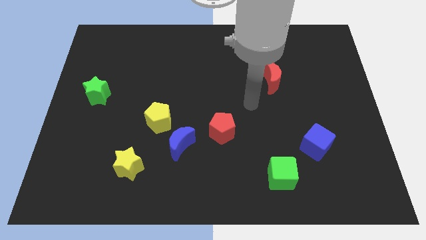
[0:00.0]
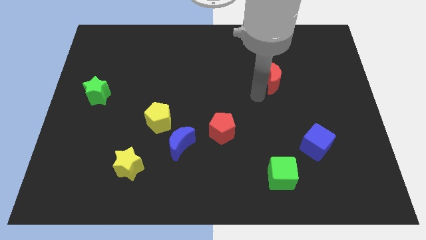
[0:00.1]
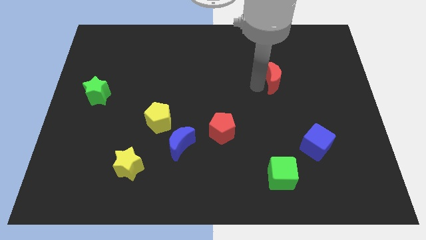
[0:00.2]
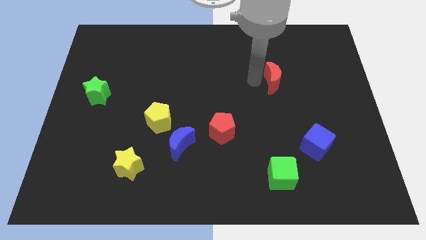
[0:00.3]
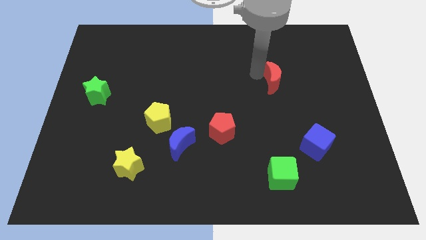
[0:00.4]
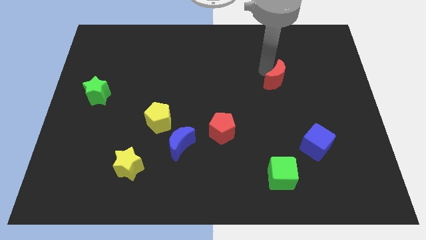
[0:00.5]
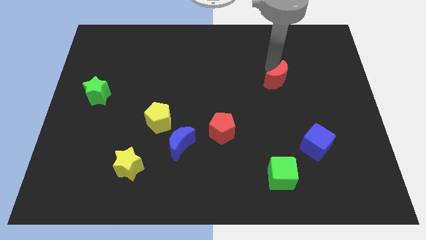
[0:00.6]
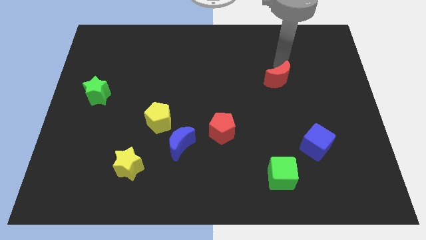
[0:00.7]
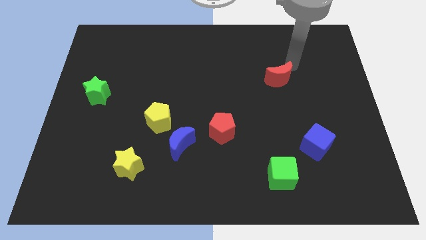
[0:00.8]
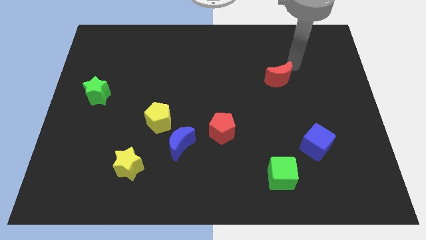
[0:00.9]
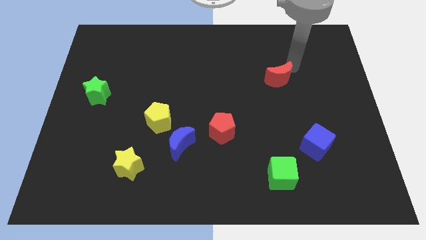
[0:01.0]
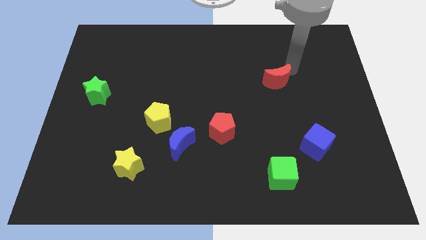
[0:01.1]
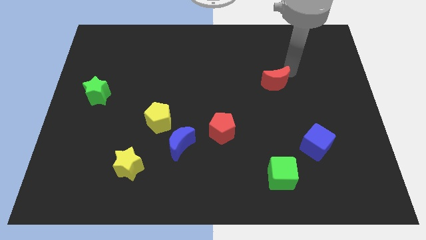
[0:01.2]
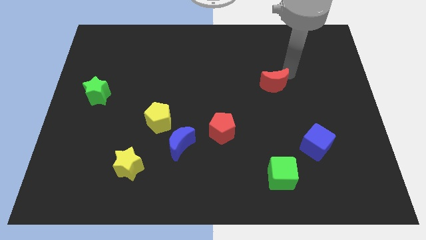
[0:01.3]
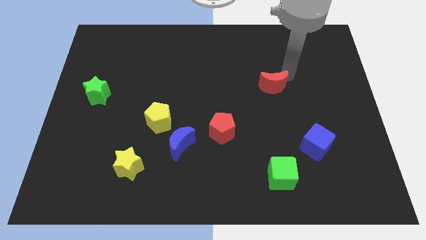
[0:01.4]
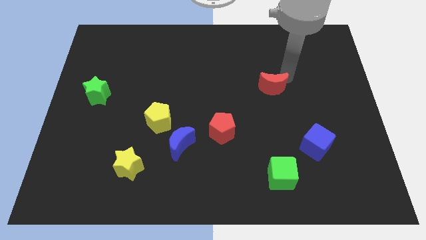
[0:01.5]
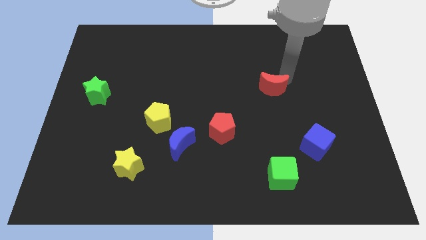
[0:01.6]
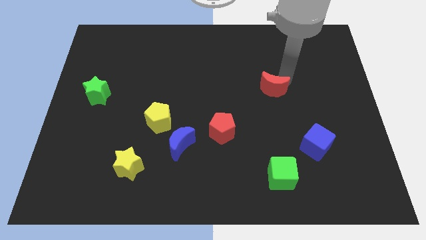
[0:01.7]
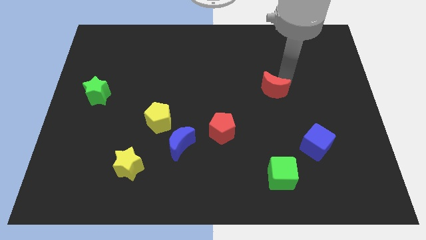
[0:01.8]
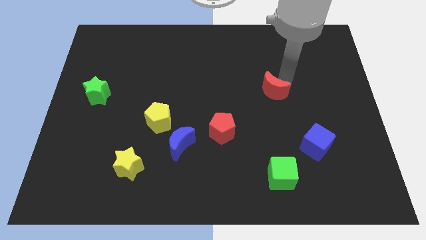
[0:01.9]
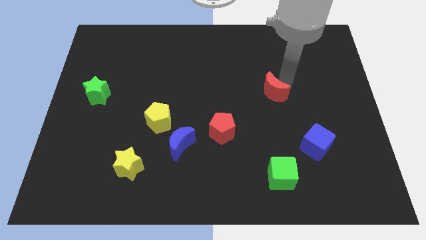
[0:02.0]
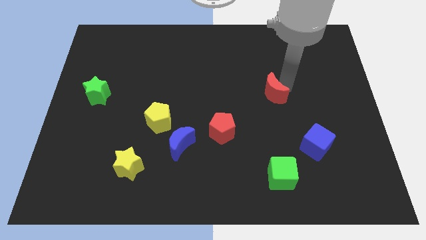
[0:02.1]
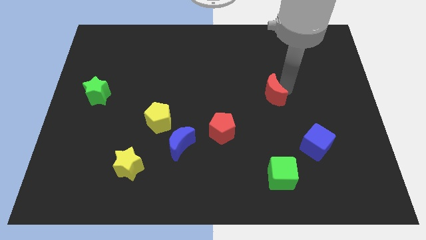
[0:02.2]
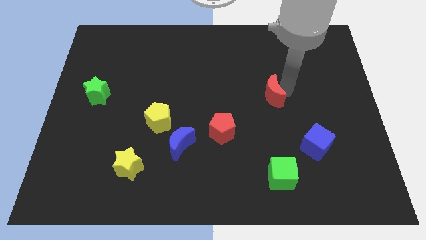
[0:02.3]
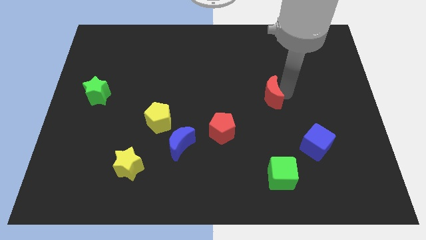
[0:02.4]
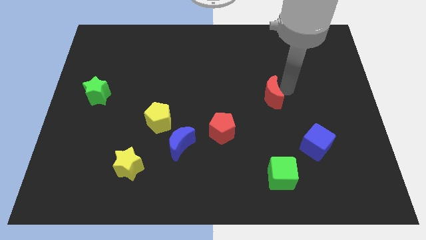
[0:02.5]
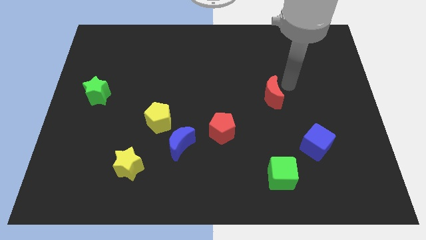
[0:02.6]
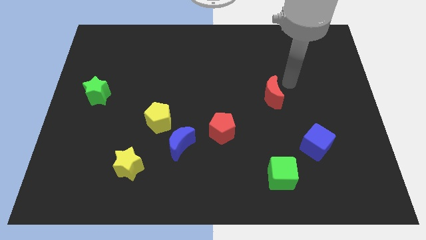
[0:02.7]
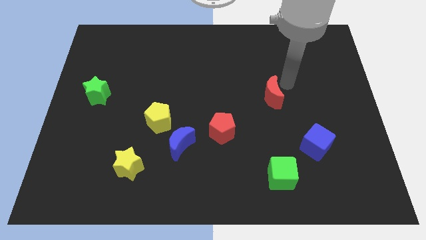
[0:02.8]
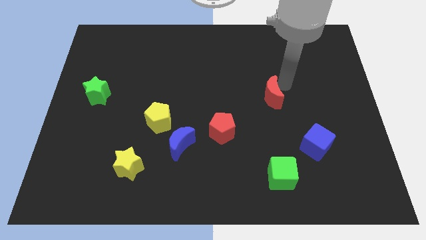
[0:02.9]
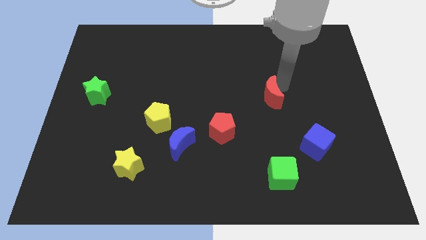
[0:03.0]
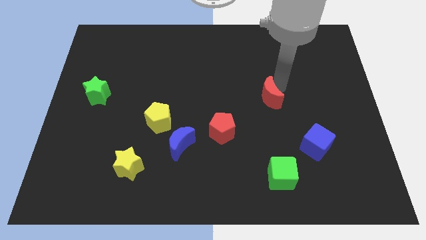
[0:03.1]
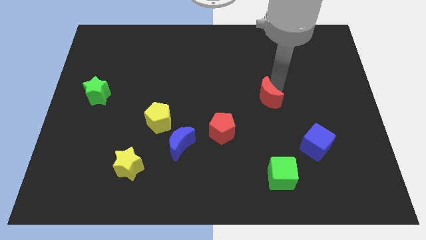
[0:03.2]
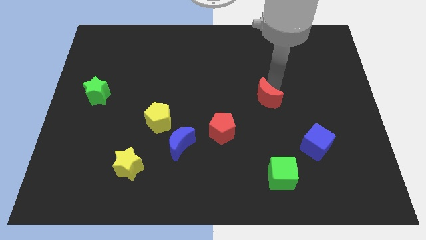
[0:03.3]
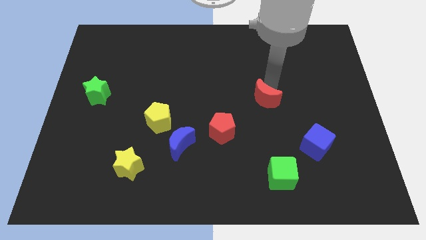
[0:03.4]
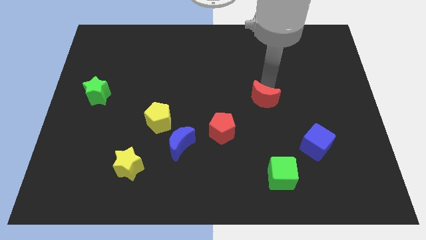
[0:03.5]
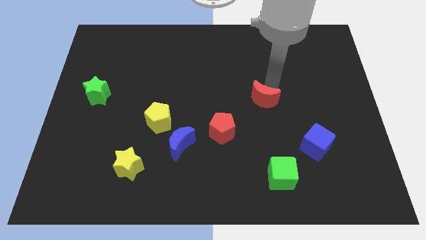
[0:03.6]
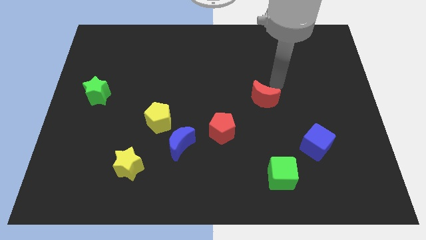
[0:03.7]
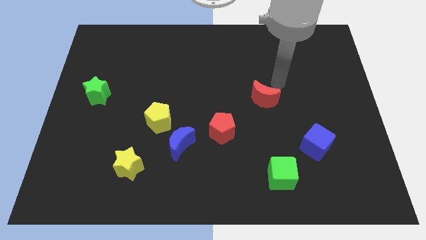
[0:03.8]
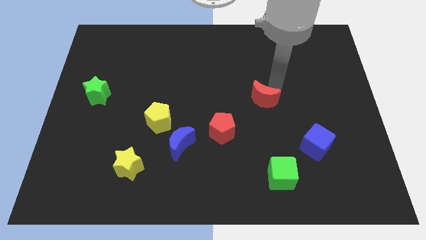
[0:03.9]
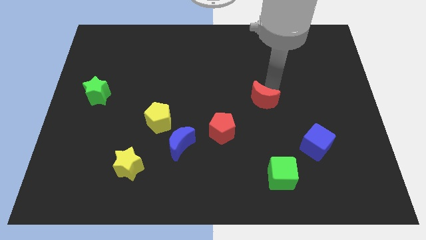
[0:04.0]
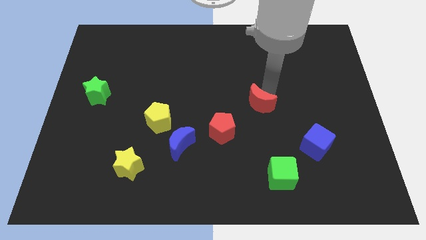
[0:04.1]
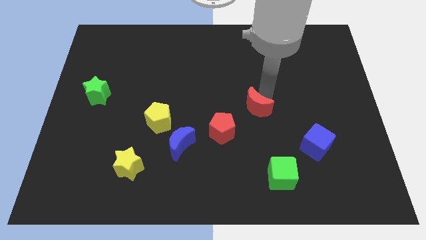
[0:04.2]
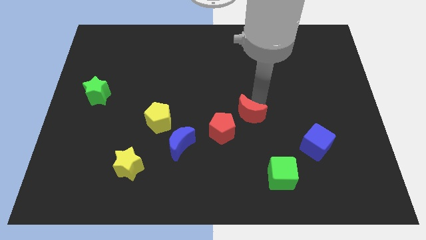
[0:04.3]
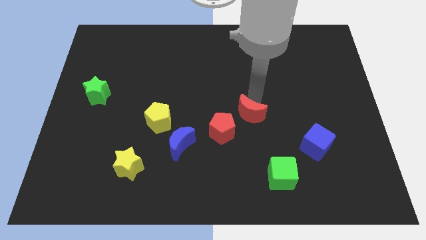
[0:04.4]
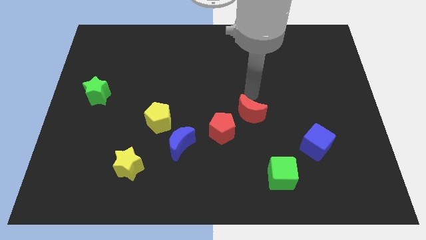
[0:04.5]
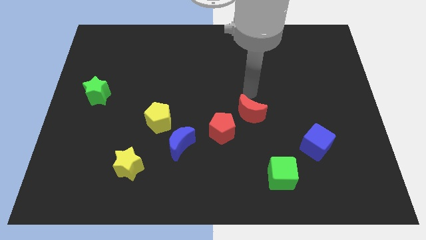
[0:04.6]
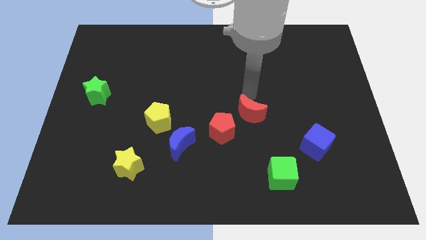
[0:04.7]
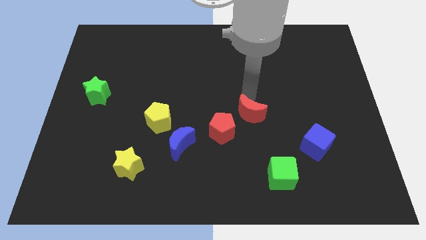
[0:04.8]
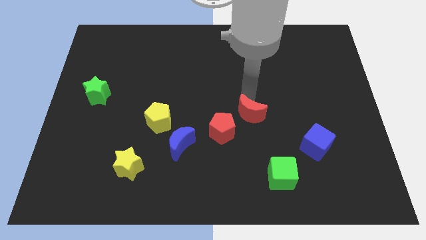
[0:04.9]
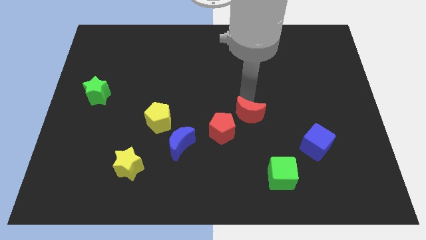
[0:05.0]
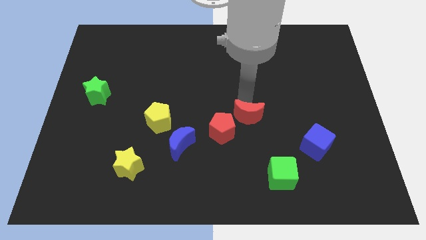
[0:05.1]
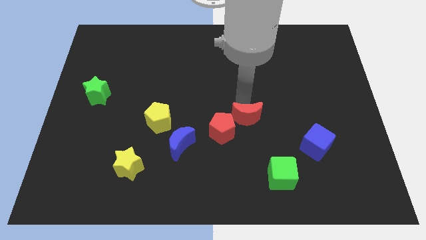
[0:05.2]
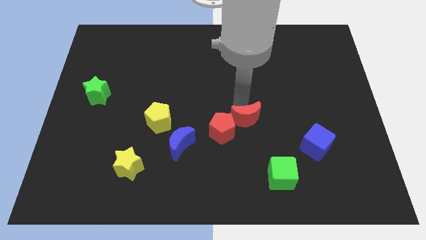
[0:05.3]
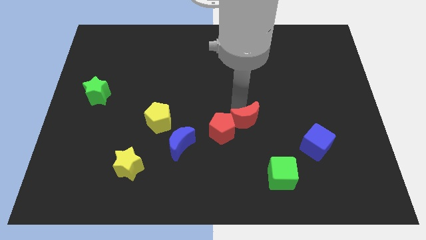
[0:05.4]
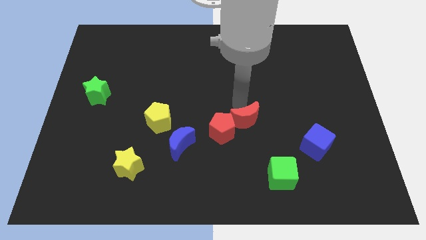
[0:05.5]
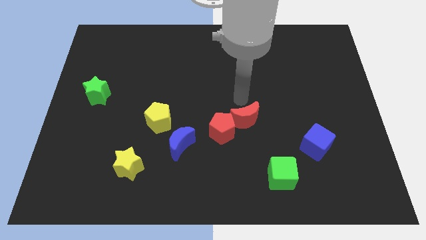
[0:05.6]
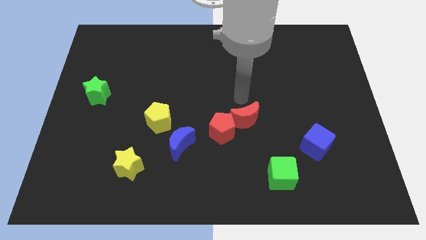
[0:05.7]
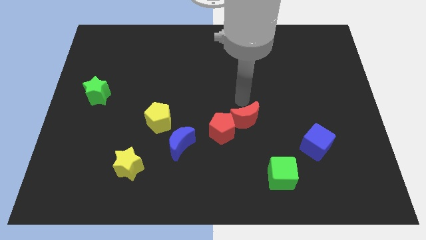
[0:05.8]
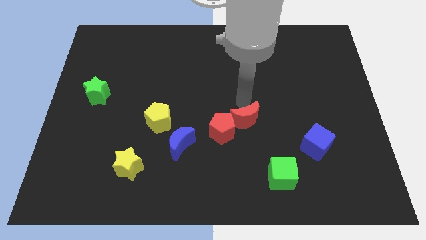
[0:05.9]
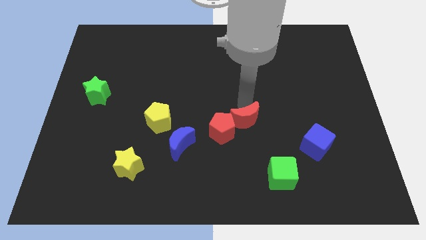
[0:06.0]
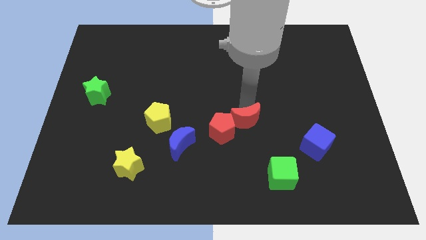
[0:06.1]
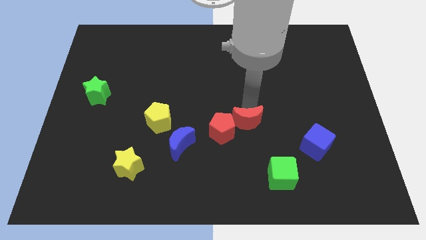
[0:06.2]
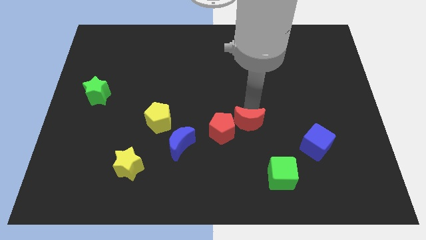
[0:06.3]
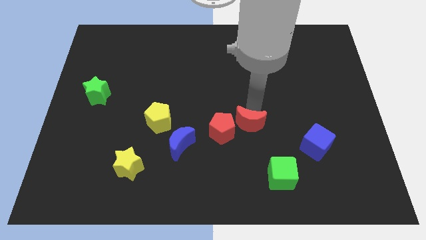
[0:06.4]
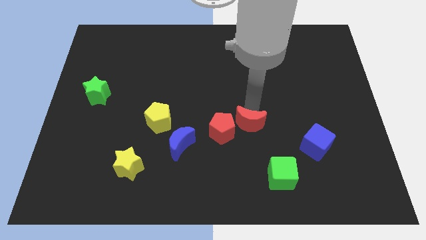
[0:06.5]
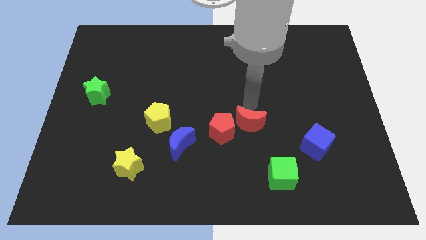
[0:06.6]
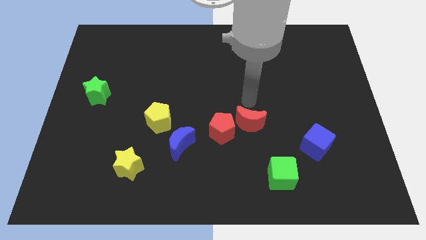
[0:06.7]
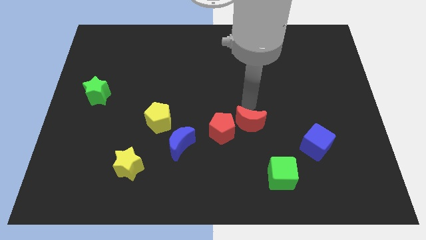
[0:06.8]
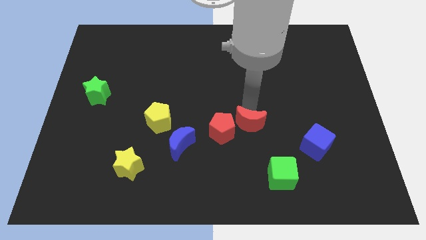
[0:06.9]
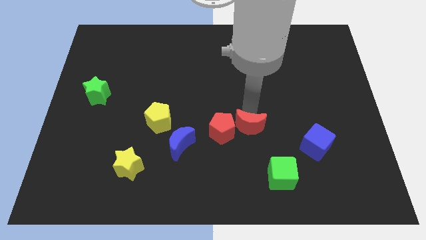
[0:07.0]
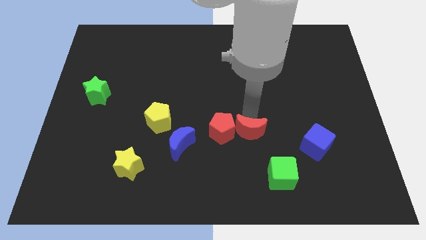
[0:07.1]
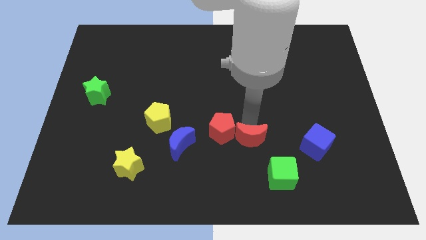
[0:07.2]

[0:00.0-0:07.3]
put the red moon diagonally up and to the left of the green cube
